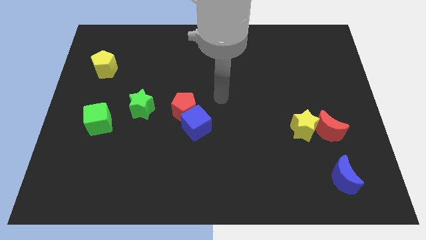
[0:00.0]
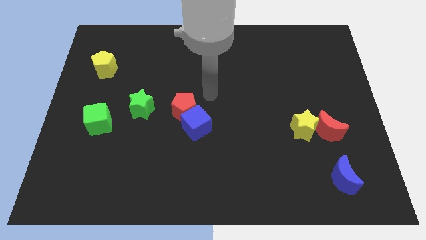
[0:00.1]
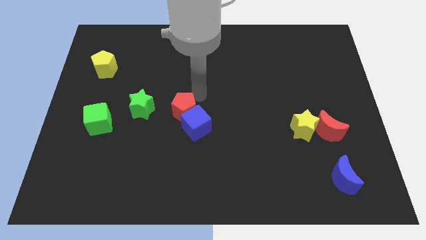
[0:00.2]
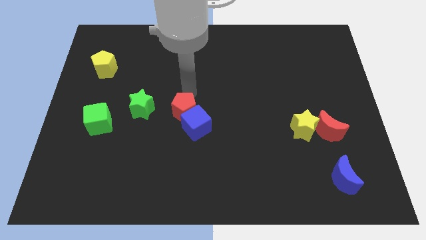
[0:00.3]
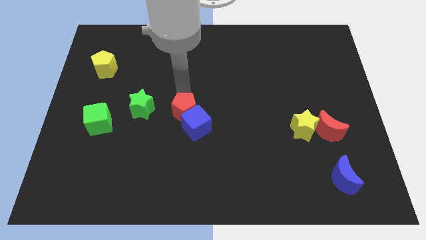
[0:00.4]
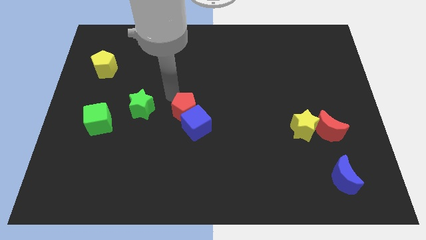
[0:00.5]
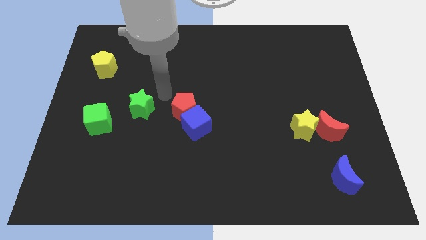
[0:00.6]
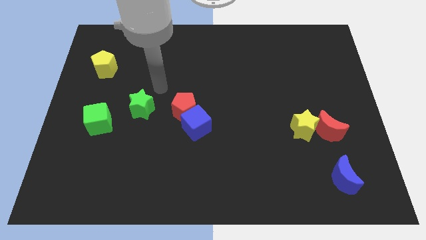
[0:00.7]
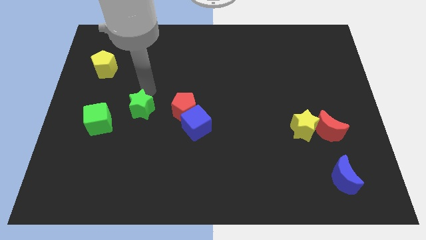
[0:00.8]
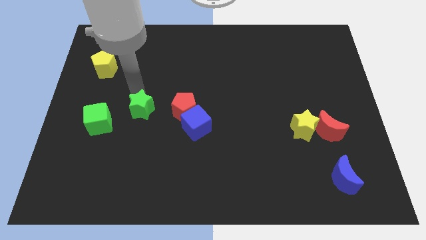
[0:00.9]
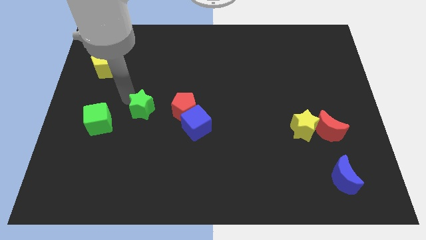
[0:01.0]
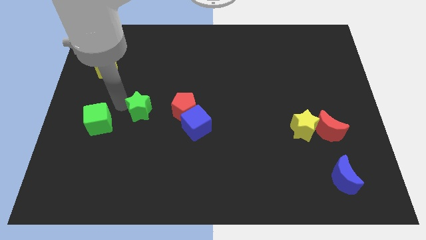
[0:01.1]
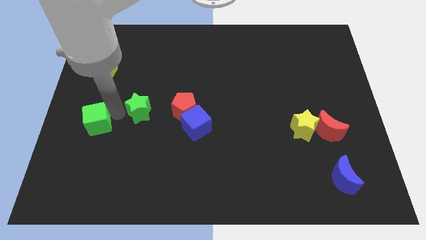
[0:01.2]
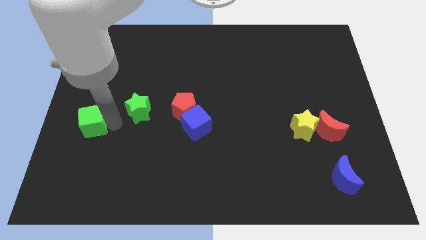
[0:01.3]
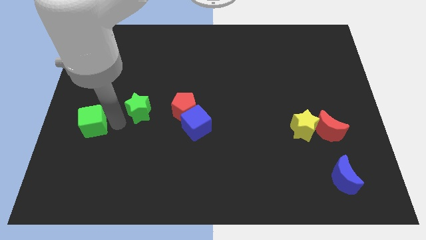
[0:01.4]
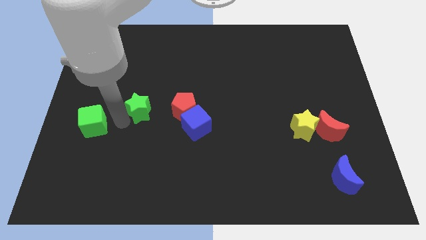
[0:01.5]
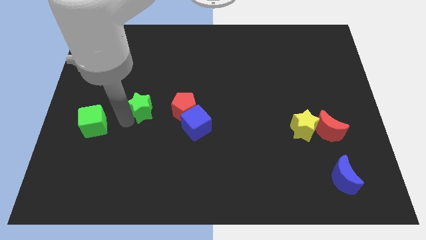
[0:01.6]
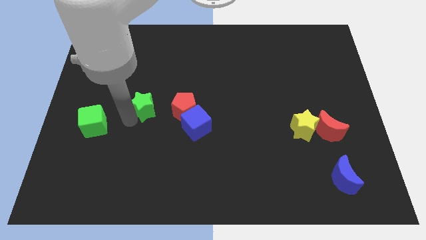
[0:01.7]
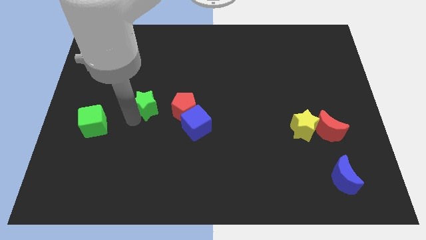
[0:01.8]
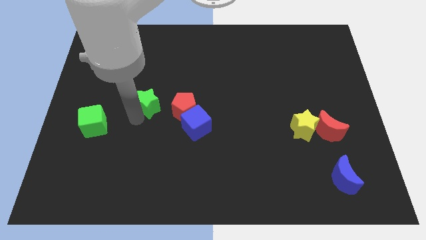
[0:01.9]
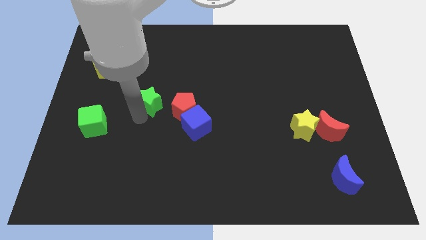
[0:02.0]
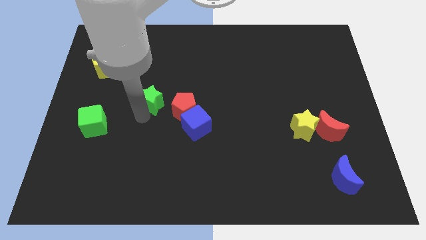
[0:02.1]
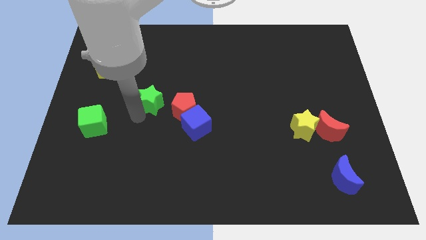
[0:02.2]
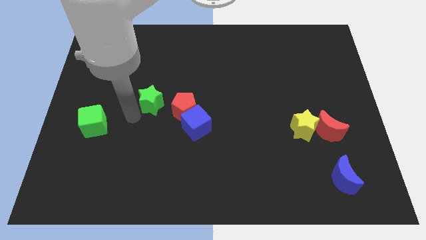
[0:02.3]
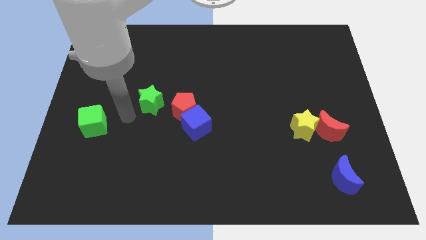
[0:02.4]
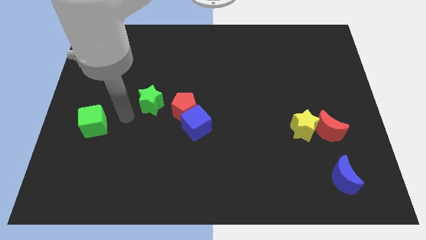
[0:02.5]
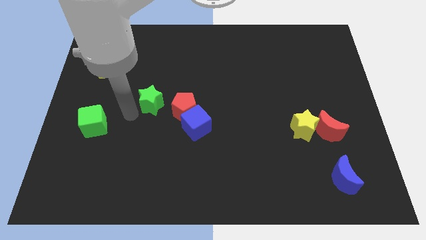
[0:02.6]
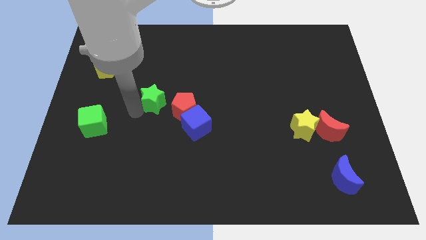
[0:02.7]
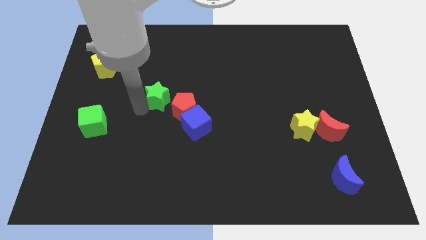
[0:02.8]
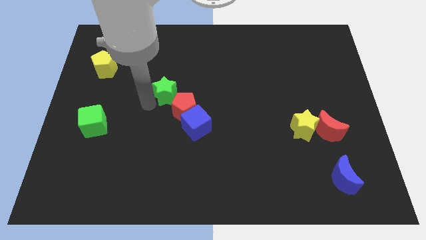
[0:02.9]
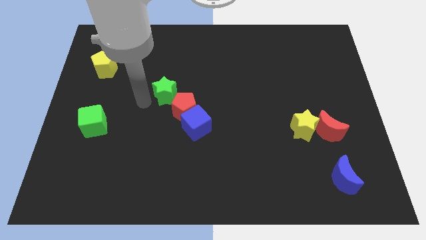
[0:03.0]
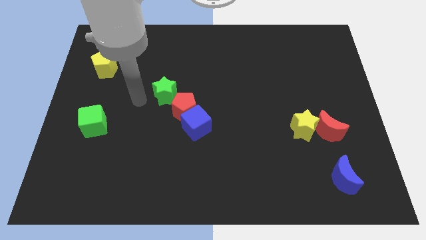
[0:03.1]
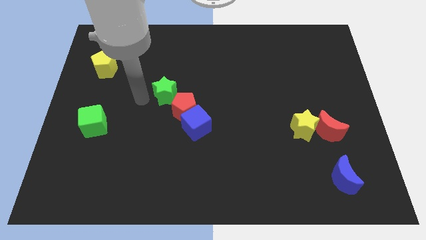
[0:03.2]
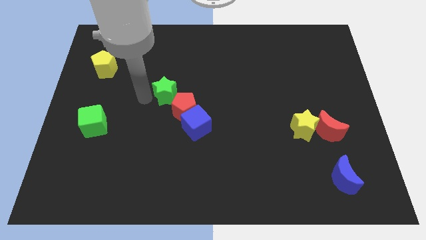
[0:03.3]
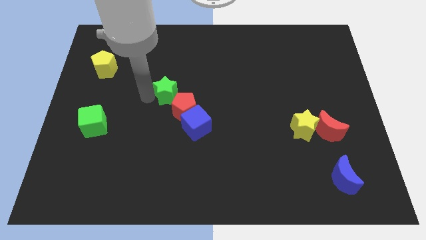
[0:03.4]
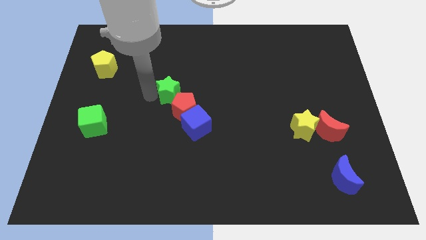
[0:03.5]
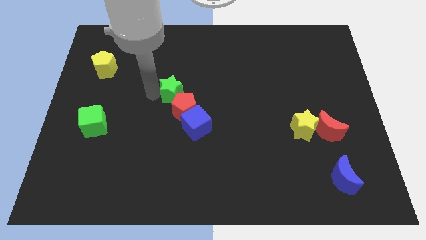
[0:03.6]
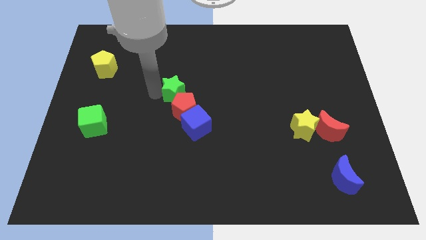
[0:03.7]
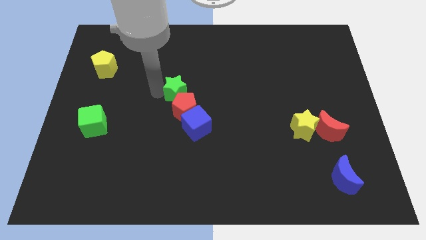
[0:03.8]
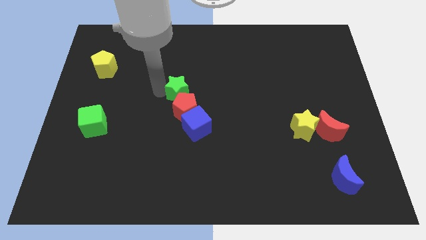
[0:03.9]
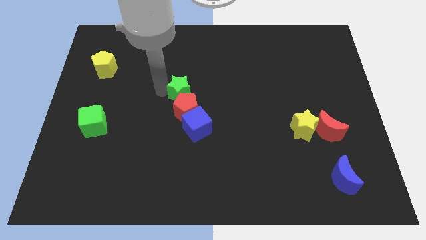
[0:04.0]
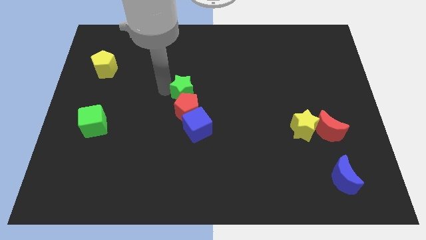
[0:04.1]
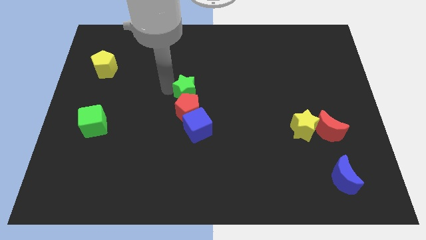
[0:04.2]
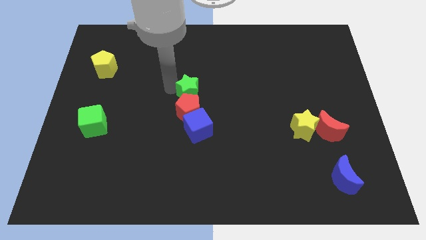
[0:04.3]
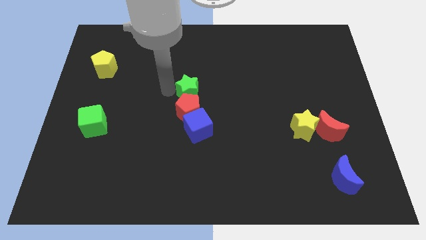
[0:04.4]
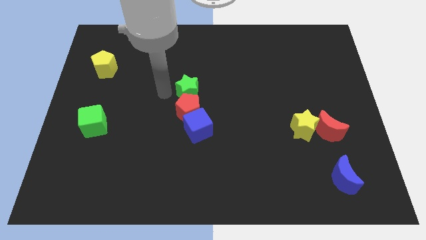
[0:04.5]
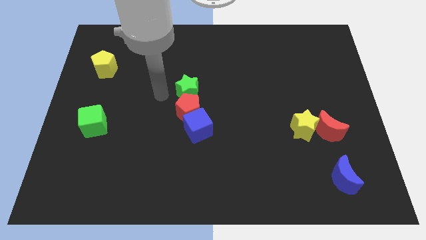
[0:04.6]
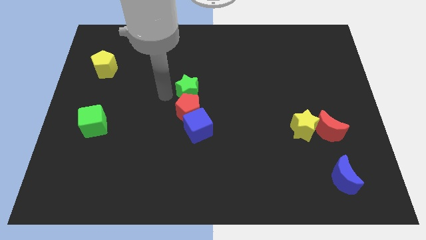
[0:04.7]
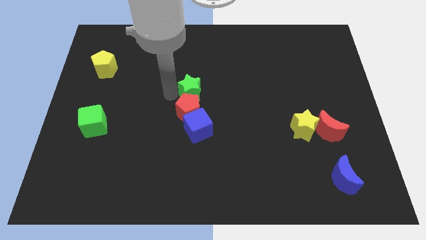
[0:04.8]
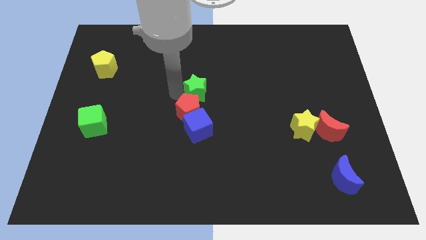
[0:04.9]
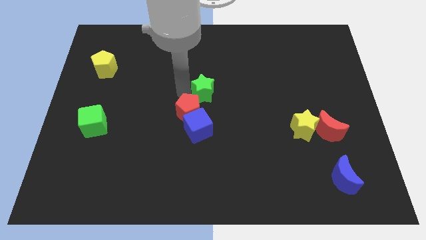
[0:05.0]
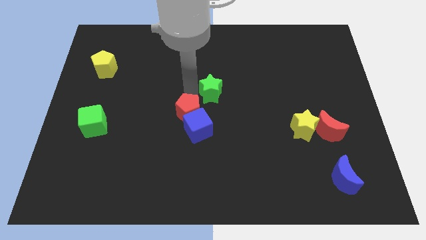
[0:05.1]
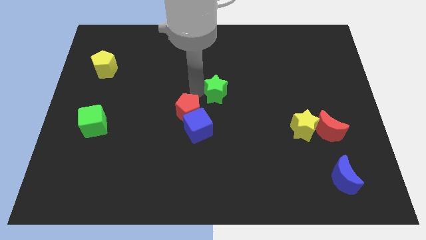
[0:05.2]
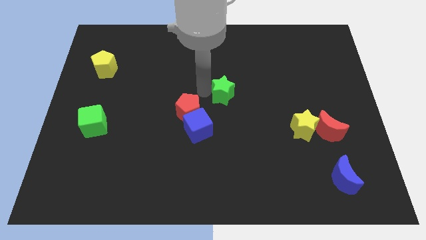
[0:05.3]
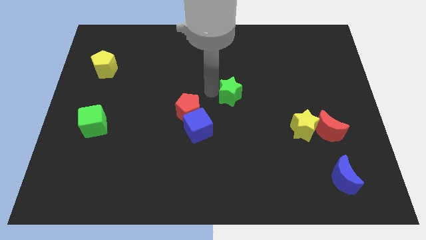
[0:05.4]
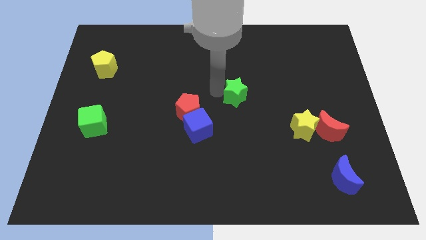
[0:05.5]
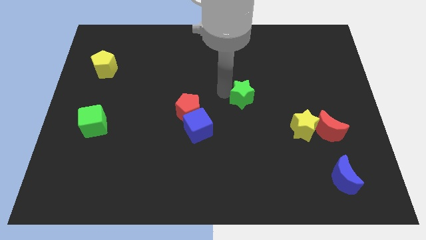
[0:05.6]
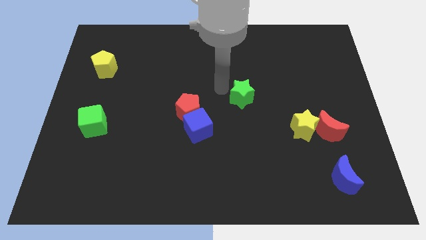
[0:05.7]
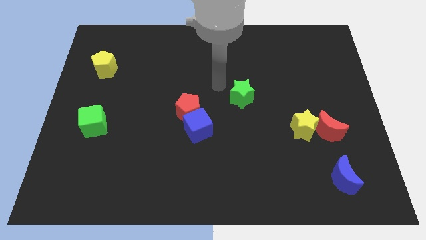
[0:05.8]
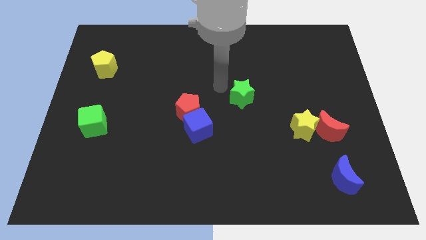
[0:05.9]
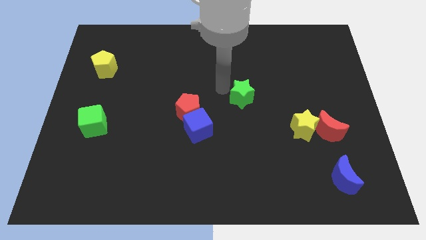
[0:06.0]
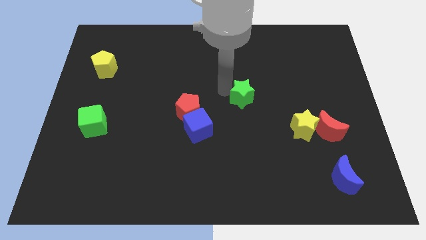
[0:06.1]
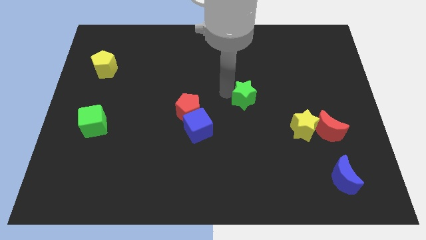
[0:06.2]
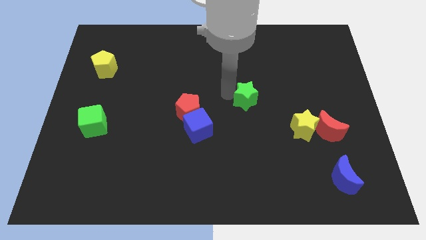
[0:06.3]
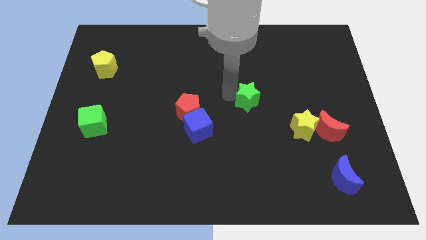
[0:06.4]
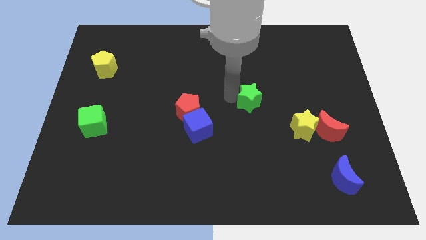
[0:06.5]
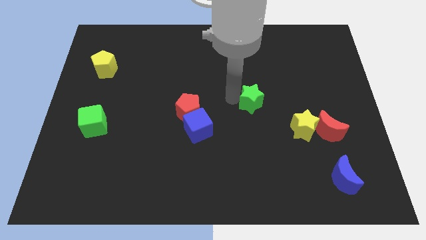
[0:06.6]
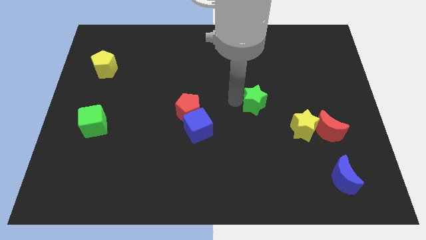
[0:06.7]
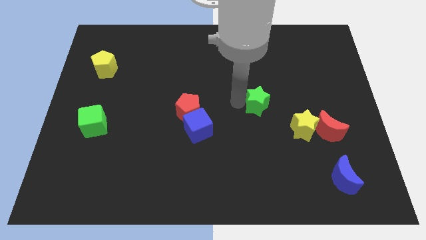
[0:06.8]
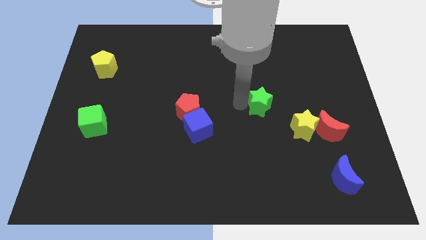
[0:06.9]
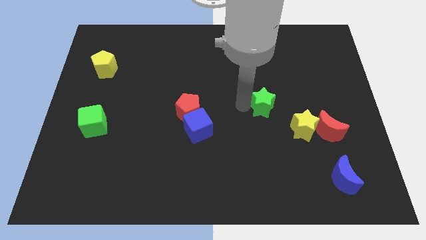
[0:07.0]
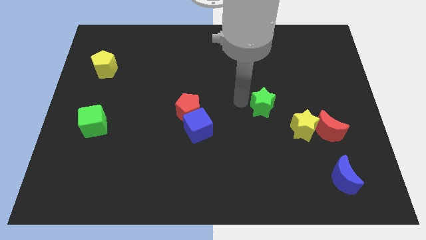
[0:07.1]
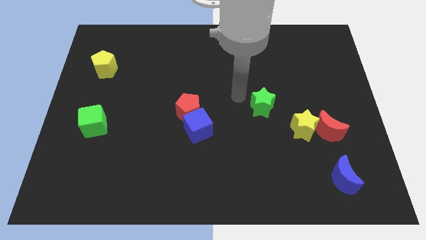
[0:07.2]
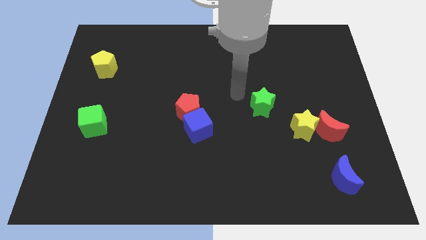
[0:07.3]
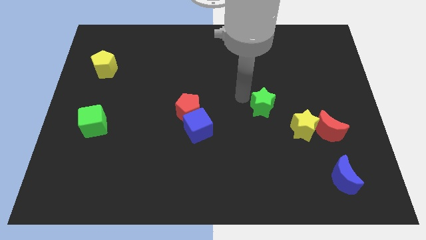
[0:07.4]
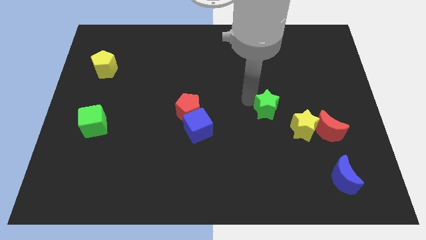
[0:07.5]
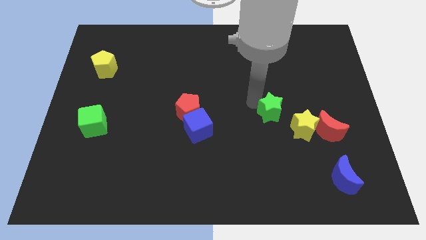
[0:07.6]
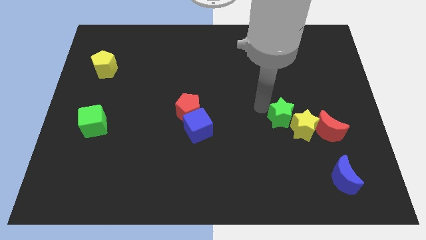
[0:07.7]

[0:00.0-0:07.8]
slide the green star towards the yellow star
